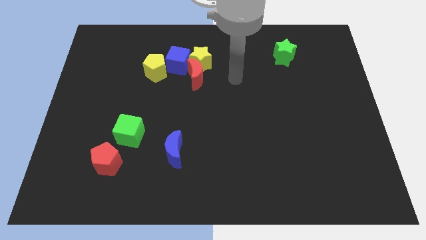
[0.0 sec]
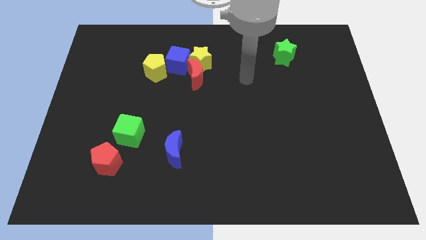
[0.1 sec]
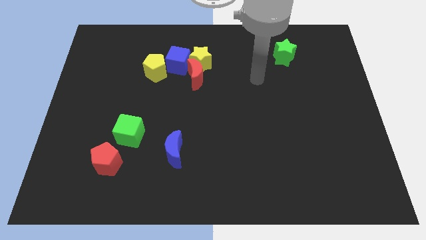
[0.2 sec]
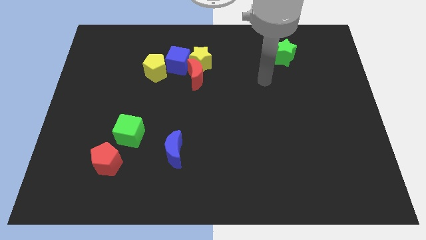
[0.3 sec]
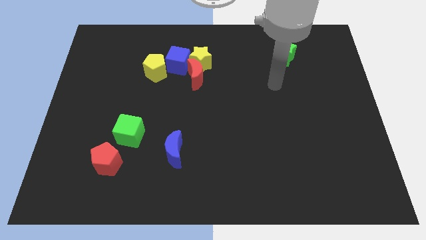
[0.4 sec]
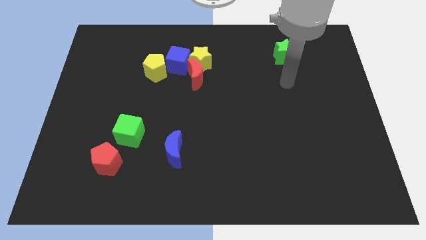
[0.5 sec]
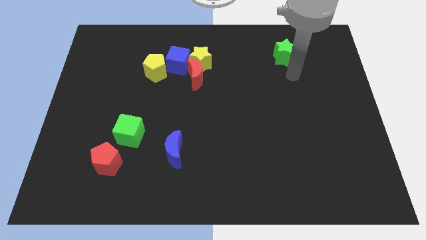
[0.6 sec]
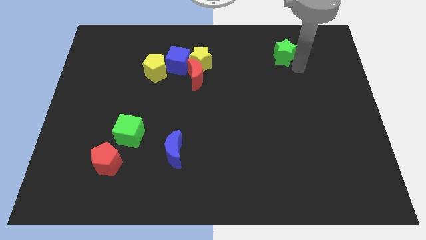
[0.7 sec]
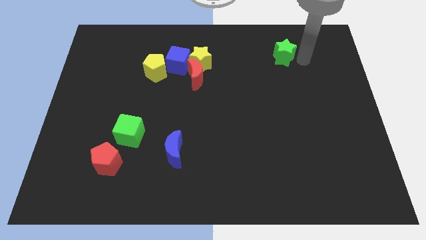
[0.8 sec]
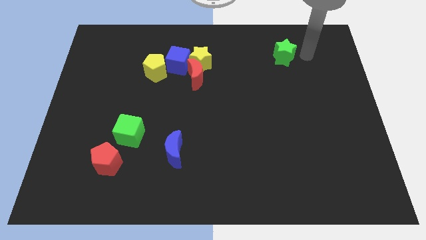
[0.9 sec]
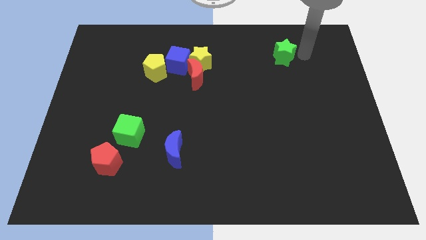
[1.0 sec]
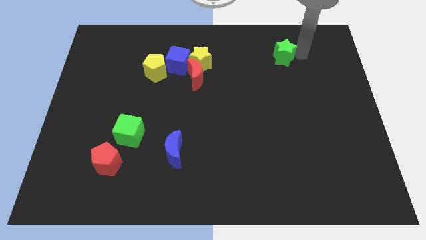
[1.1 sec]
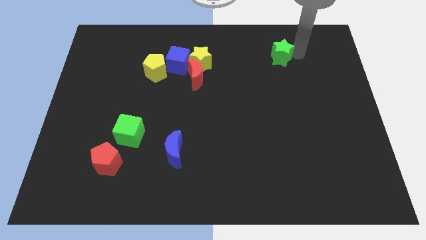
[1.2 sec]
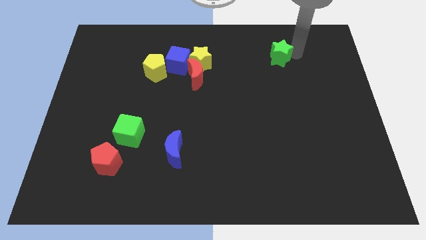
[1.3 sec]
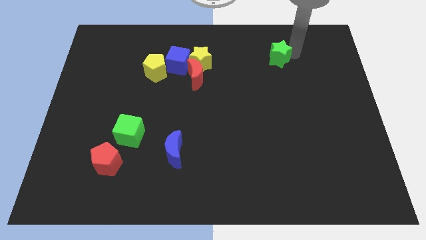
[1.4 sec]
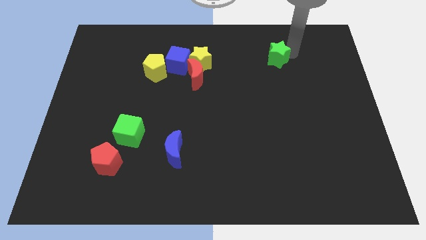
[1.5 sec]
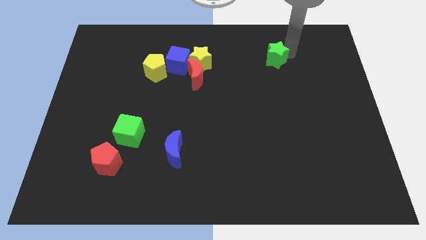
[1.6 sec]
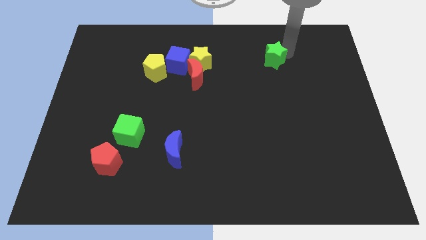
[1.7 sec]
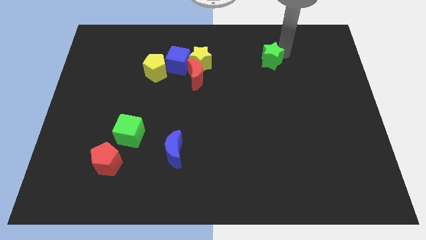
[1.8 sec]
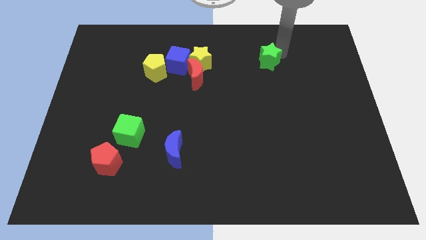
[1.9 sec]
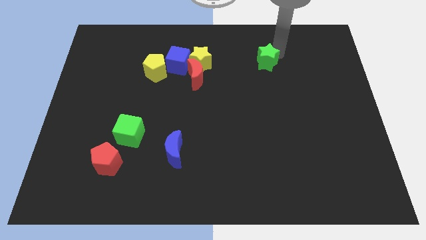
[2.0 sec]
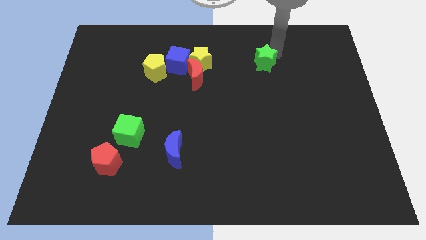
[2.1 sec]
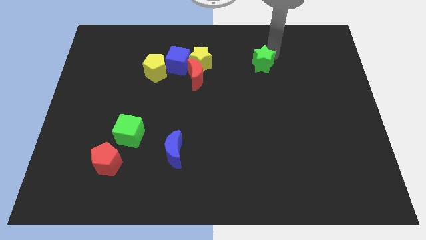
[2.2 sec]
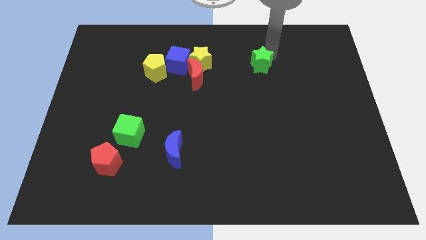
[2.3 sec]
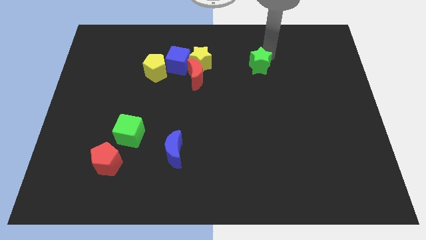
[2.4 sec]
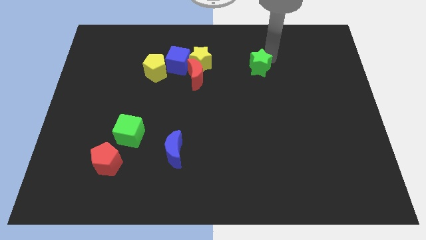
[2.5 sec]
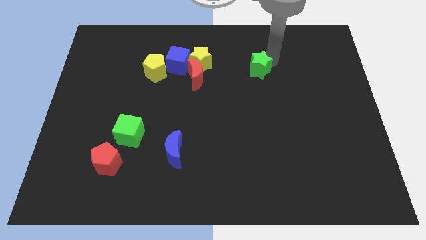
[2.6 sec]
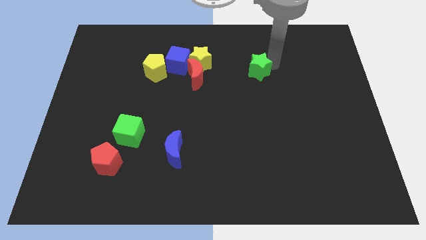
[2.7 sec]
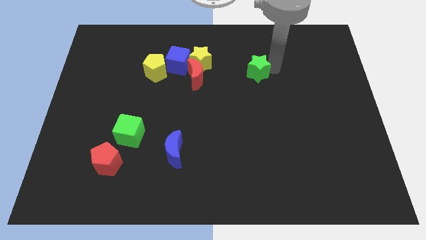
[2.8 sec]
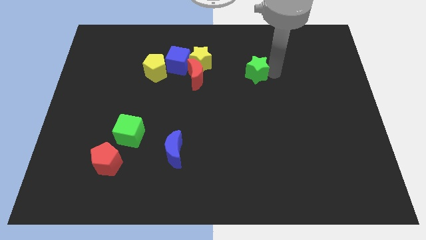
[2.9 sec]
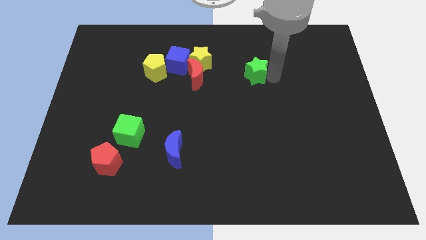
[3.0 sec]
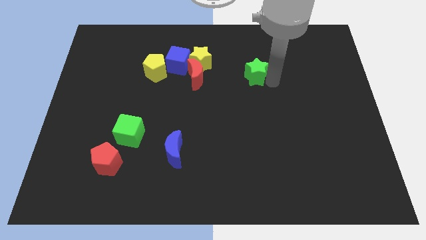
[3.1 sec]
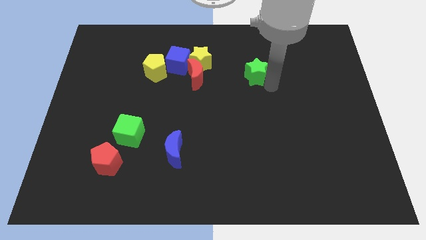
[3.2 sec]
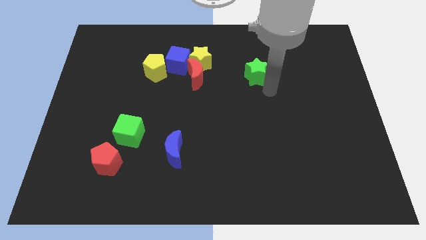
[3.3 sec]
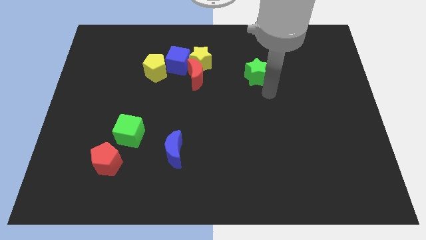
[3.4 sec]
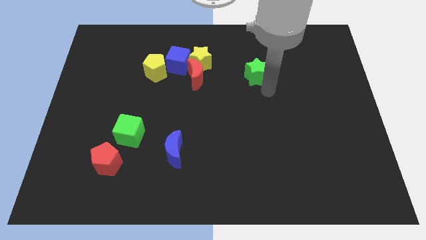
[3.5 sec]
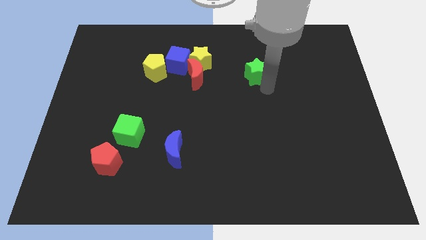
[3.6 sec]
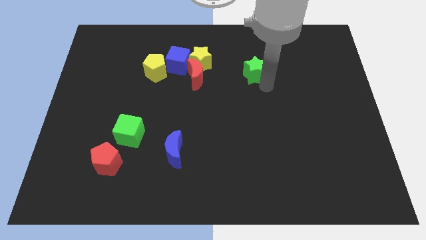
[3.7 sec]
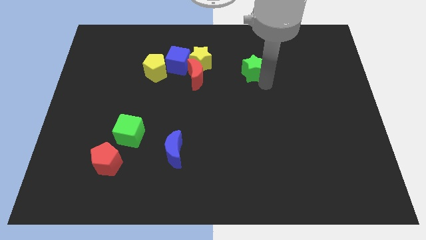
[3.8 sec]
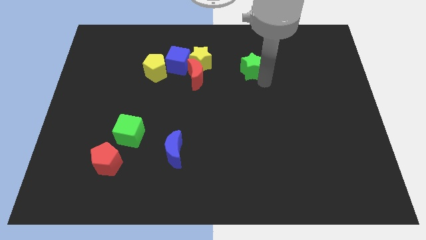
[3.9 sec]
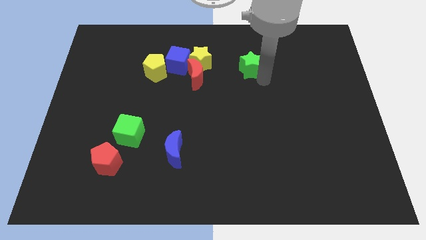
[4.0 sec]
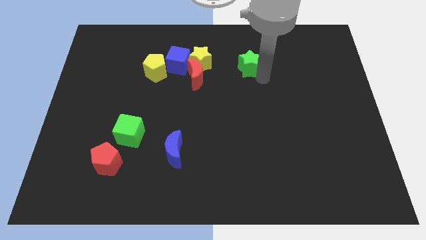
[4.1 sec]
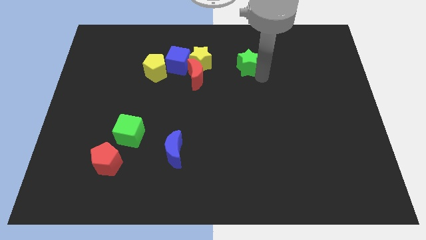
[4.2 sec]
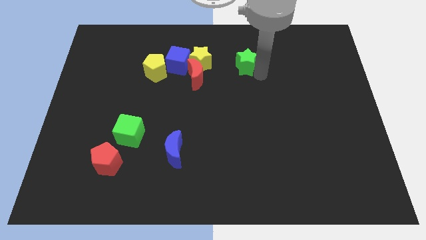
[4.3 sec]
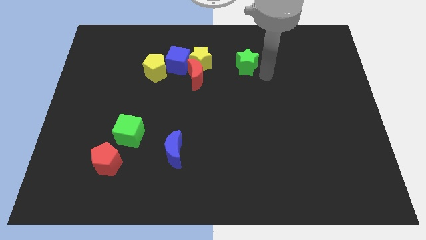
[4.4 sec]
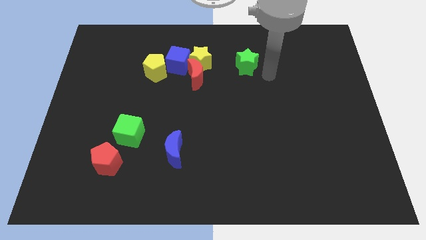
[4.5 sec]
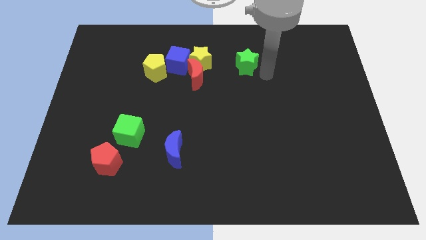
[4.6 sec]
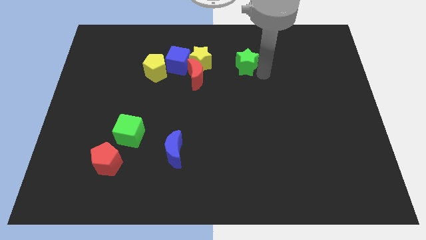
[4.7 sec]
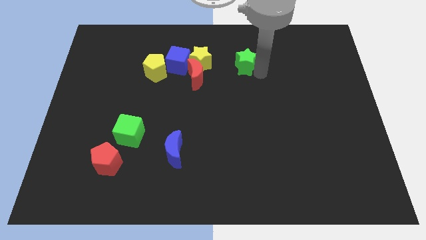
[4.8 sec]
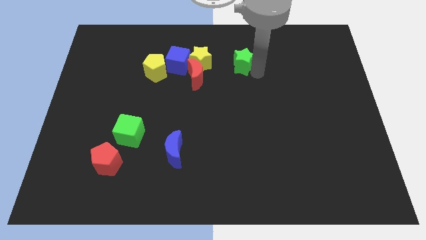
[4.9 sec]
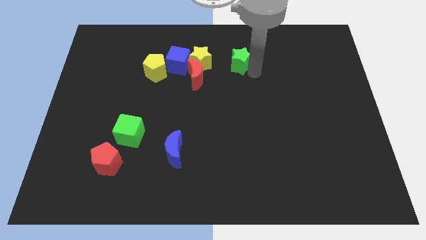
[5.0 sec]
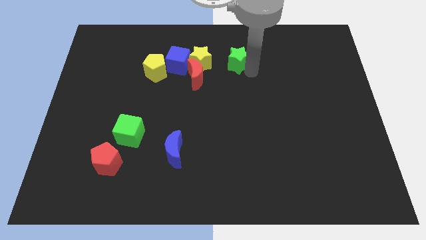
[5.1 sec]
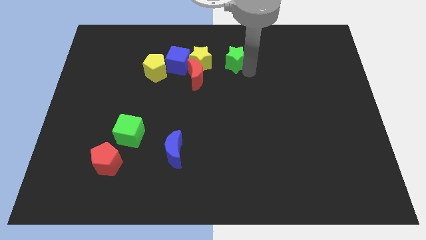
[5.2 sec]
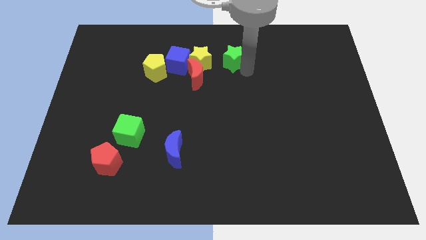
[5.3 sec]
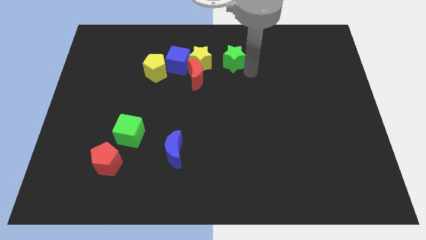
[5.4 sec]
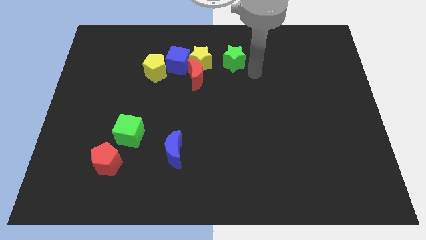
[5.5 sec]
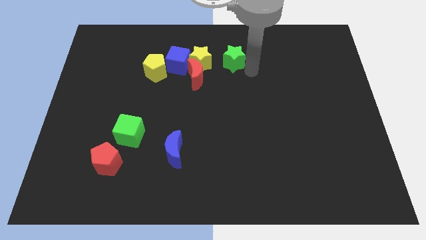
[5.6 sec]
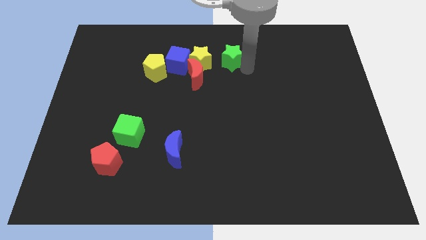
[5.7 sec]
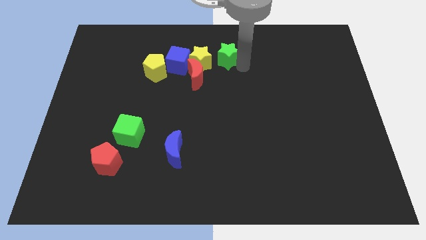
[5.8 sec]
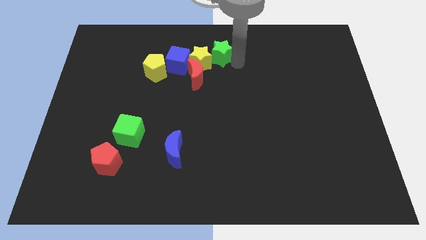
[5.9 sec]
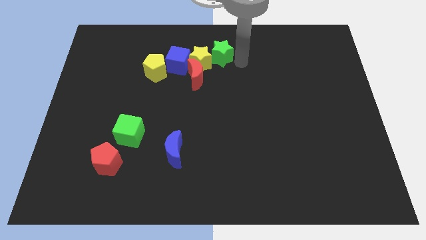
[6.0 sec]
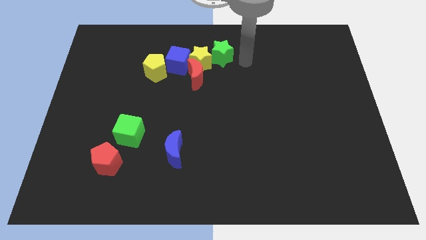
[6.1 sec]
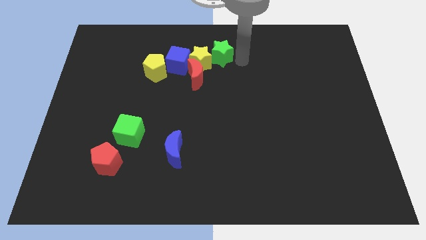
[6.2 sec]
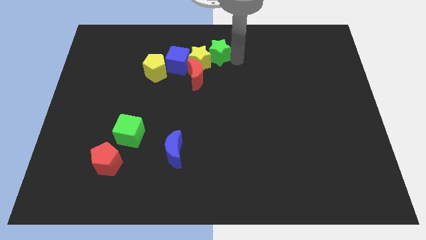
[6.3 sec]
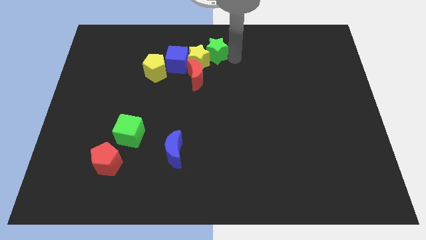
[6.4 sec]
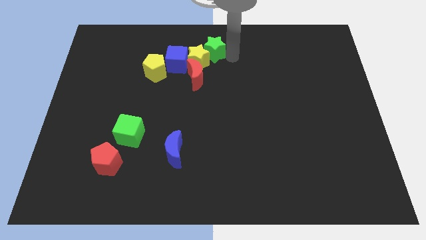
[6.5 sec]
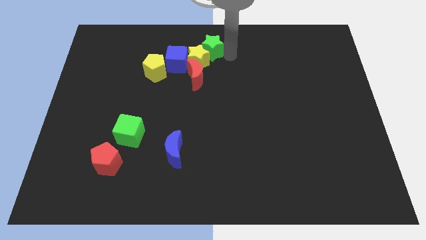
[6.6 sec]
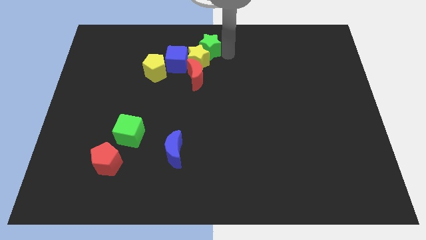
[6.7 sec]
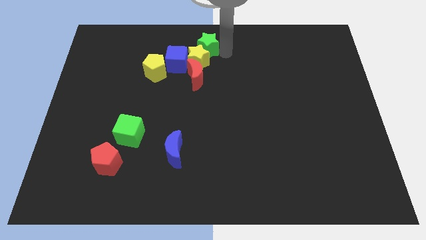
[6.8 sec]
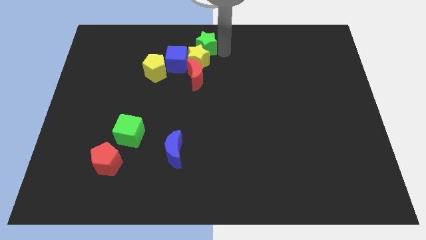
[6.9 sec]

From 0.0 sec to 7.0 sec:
move the green star left

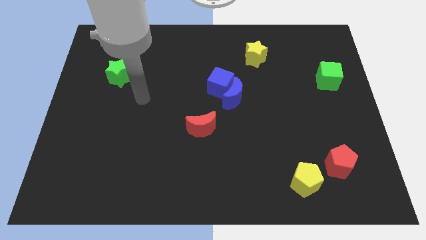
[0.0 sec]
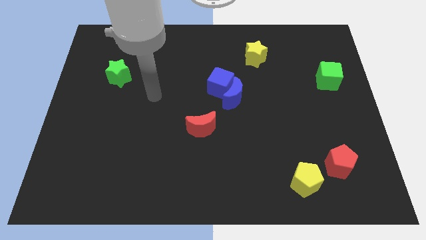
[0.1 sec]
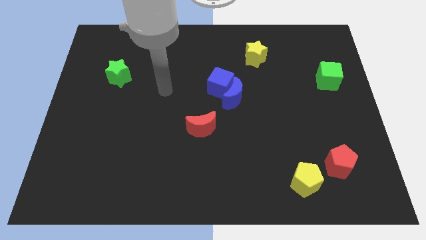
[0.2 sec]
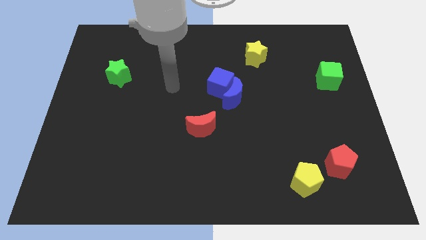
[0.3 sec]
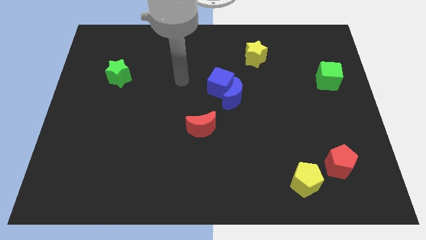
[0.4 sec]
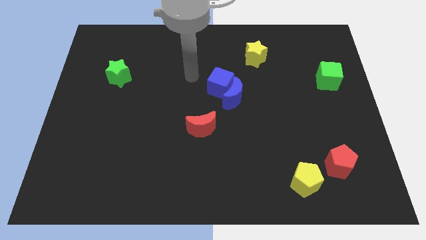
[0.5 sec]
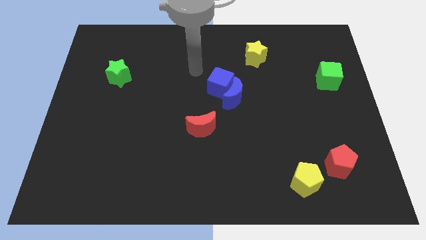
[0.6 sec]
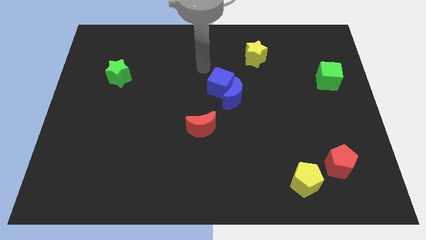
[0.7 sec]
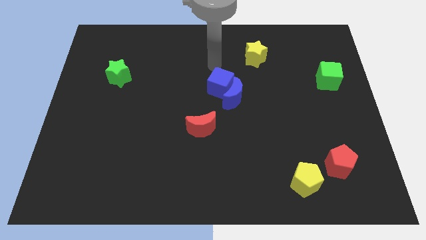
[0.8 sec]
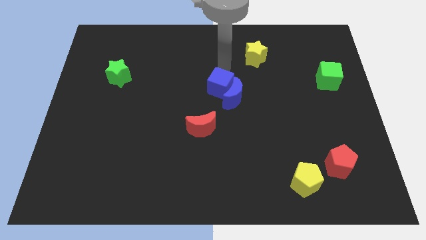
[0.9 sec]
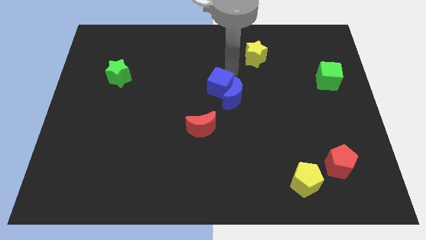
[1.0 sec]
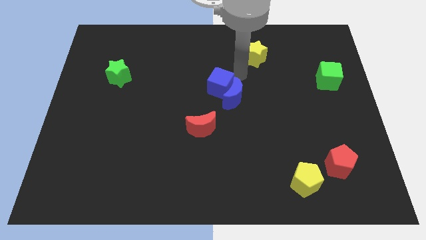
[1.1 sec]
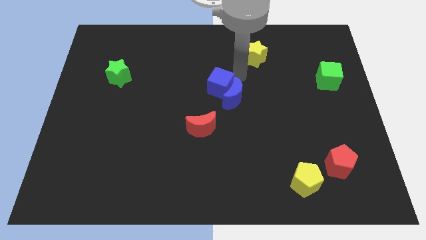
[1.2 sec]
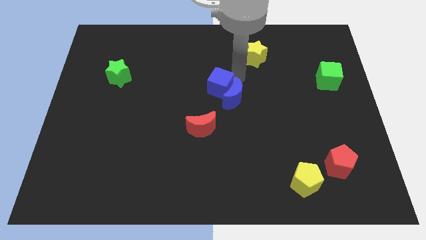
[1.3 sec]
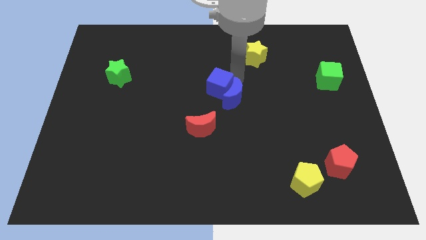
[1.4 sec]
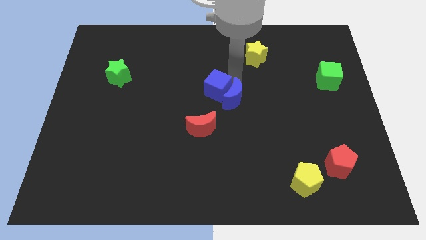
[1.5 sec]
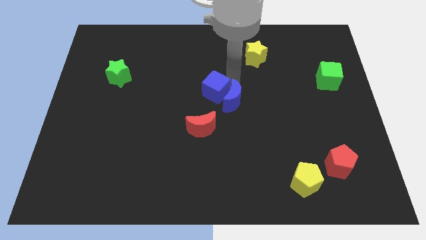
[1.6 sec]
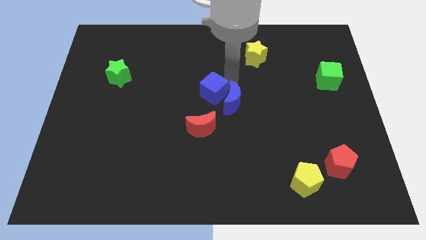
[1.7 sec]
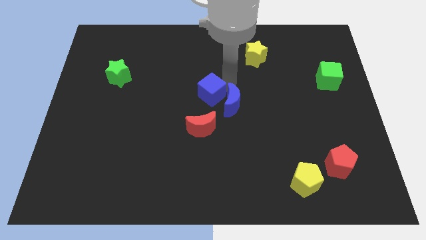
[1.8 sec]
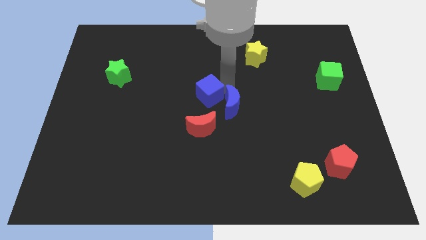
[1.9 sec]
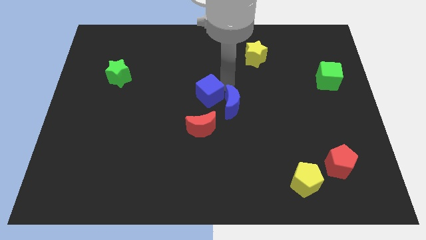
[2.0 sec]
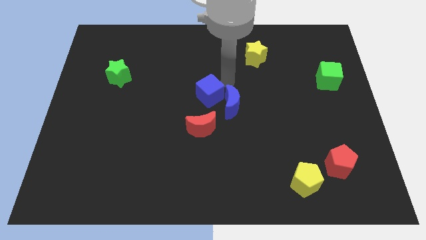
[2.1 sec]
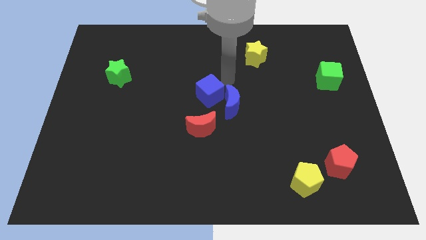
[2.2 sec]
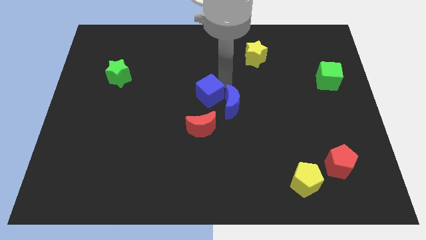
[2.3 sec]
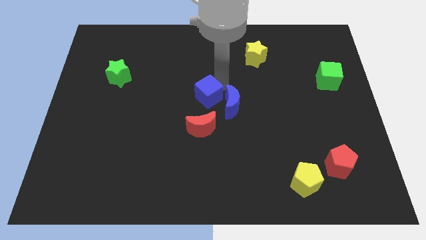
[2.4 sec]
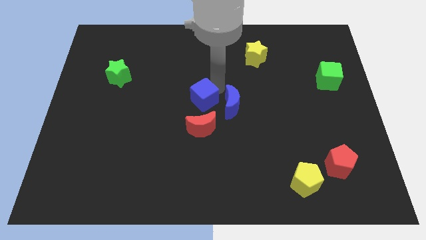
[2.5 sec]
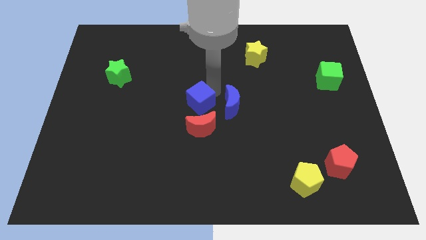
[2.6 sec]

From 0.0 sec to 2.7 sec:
slightly push the blue cube downwards and left
